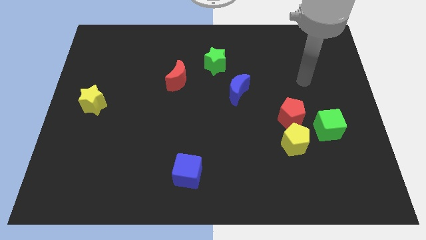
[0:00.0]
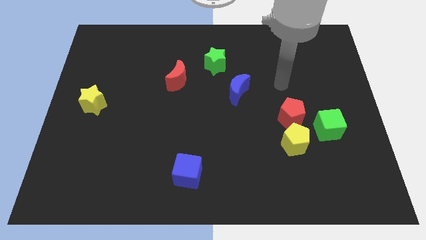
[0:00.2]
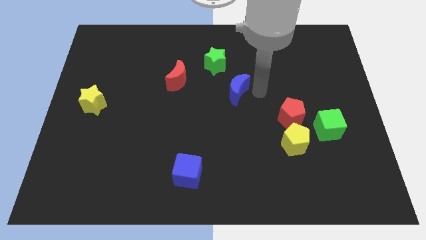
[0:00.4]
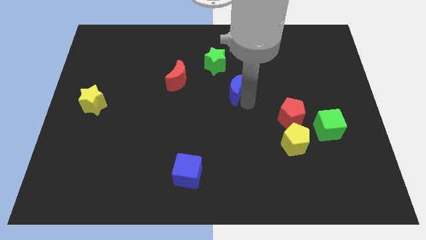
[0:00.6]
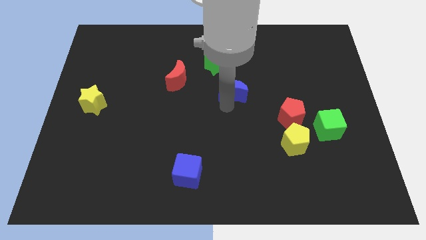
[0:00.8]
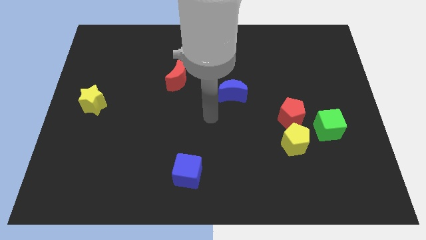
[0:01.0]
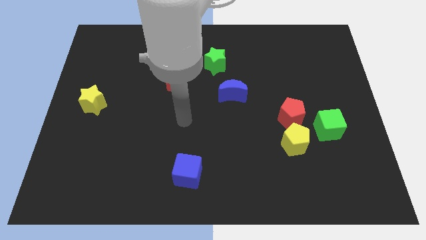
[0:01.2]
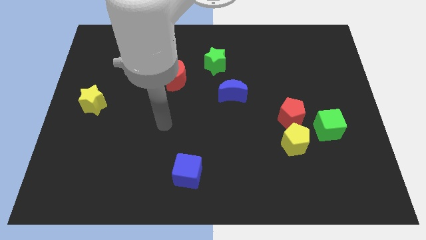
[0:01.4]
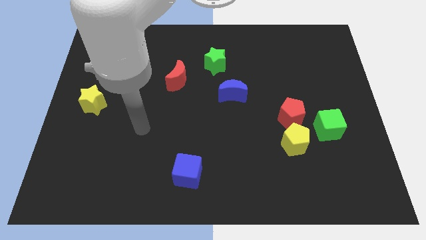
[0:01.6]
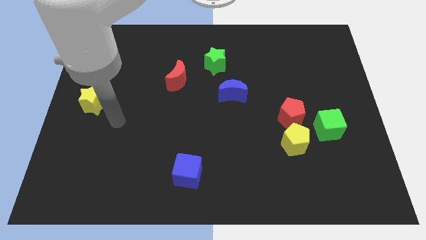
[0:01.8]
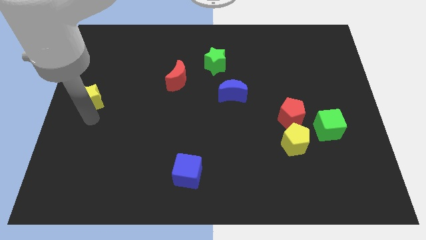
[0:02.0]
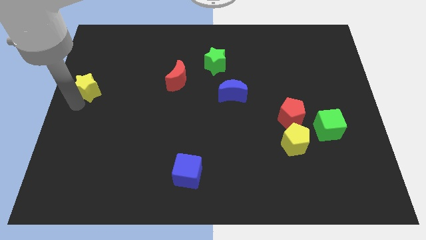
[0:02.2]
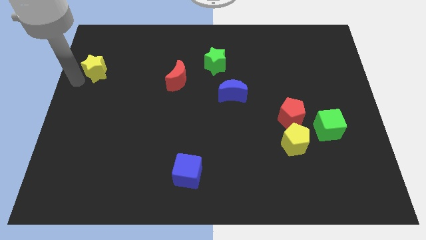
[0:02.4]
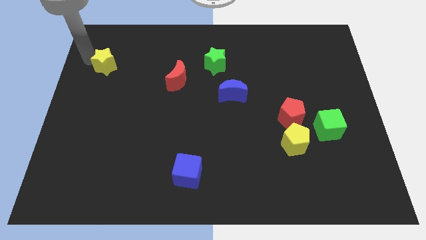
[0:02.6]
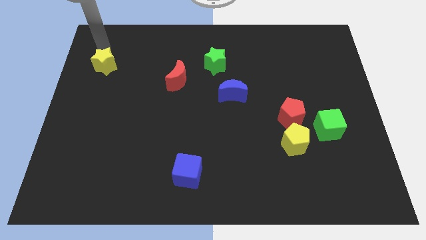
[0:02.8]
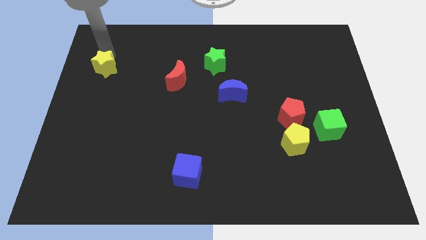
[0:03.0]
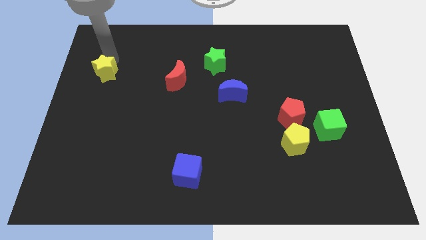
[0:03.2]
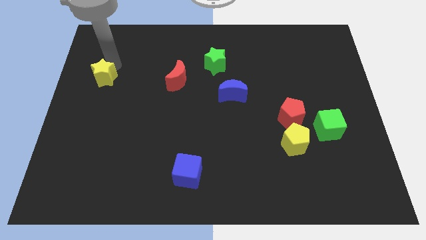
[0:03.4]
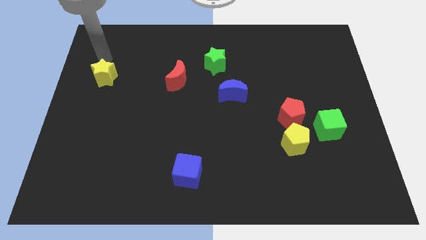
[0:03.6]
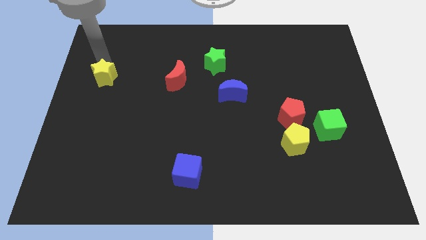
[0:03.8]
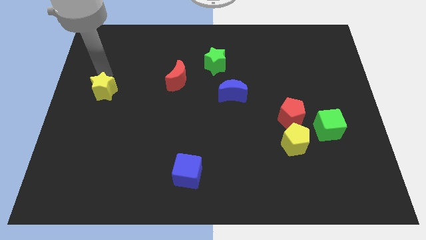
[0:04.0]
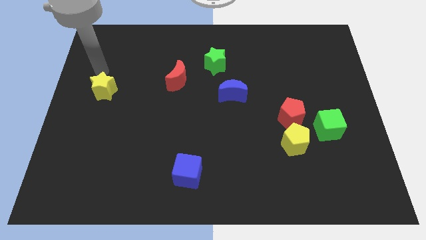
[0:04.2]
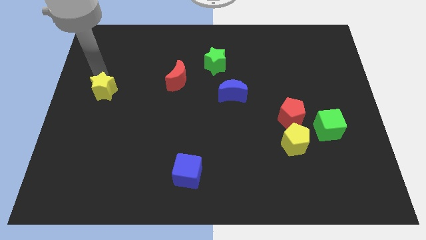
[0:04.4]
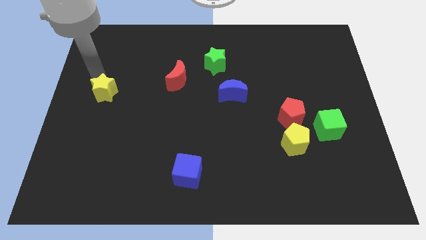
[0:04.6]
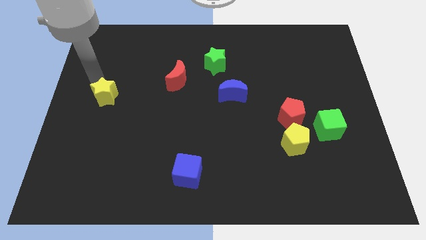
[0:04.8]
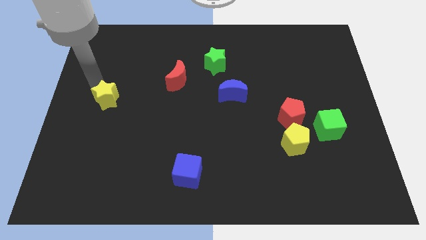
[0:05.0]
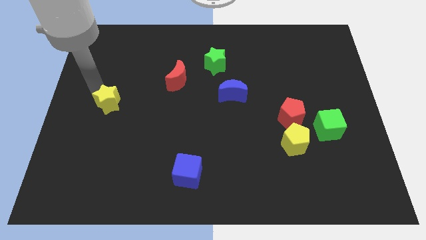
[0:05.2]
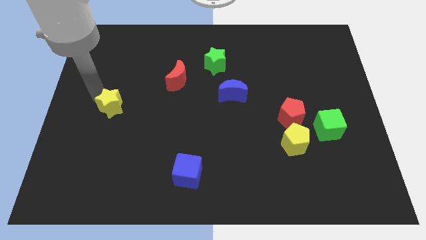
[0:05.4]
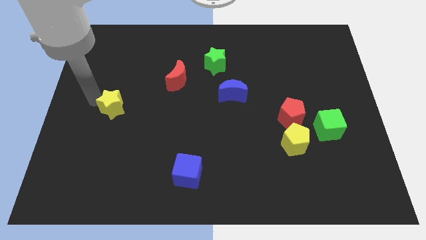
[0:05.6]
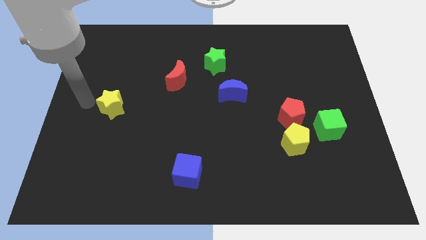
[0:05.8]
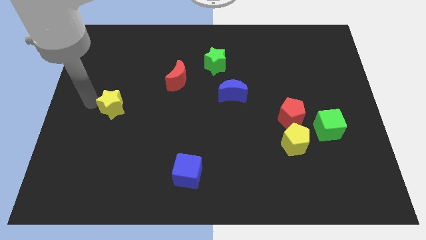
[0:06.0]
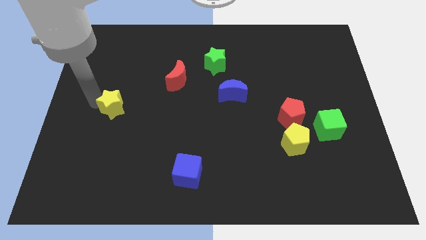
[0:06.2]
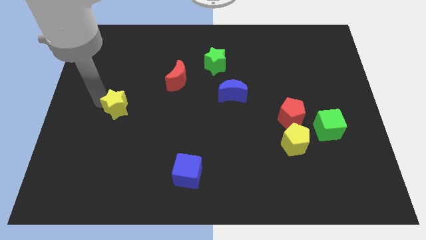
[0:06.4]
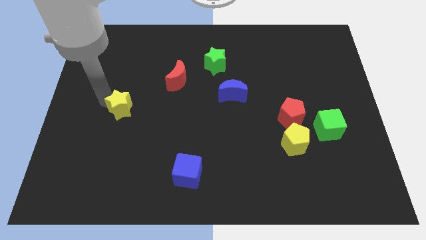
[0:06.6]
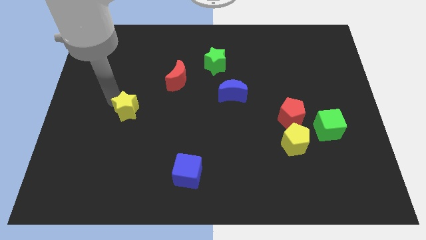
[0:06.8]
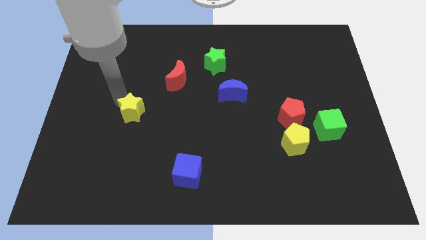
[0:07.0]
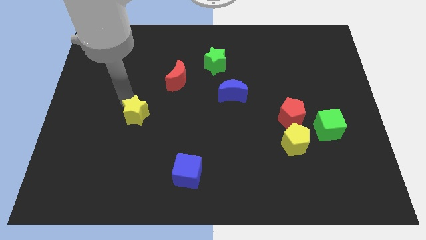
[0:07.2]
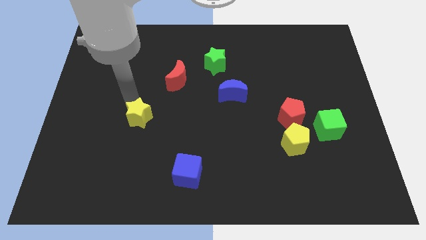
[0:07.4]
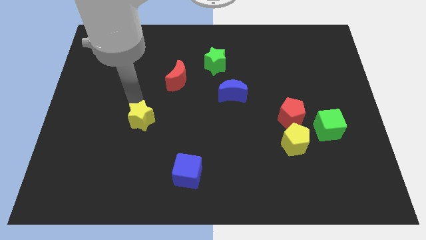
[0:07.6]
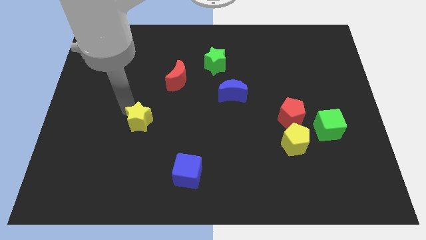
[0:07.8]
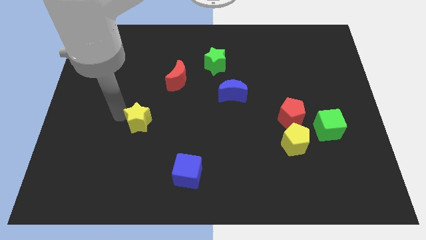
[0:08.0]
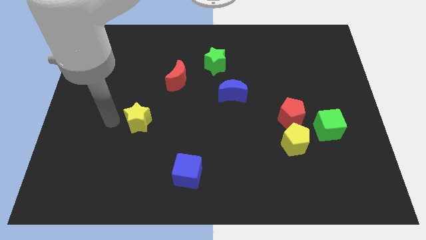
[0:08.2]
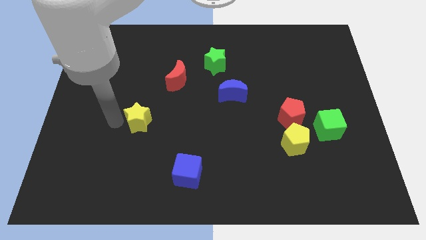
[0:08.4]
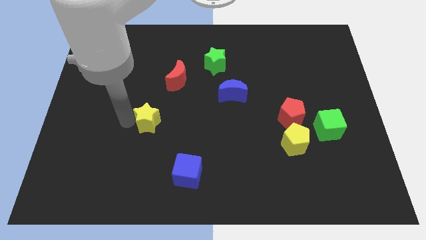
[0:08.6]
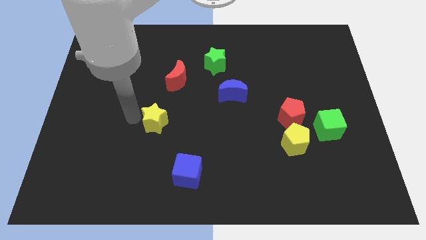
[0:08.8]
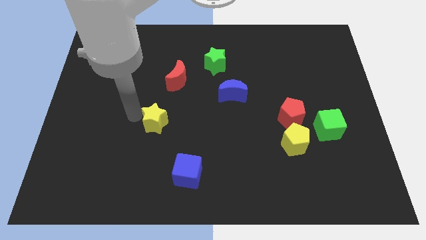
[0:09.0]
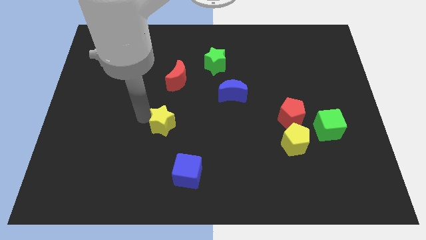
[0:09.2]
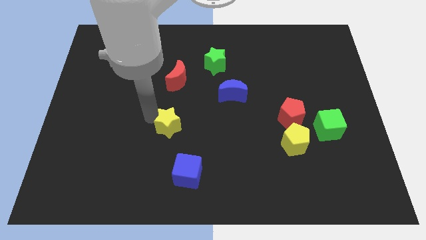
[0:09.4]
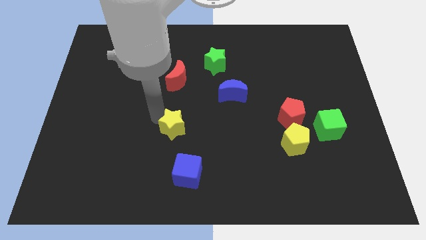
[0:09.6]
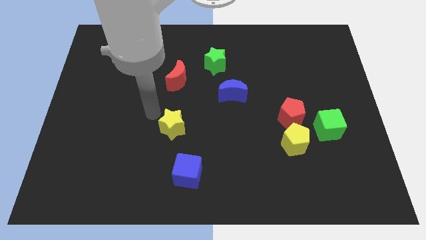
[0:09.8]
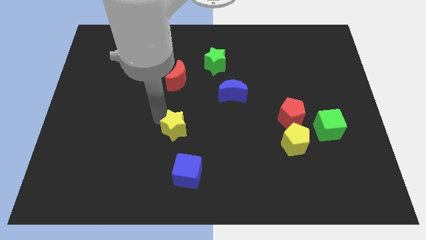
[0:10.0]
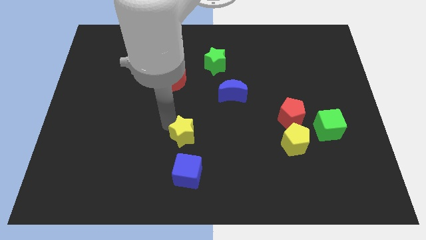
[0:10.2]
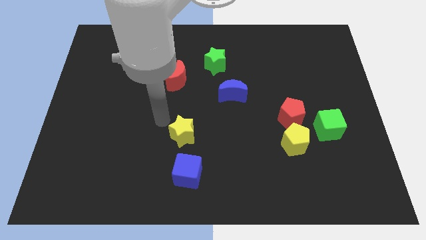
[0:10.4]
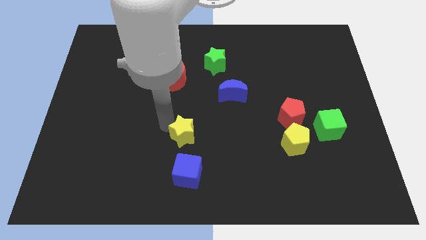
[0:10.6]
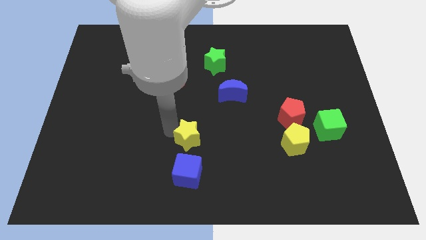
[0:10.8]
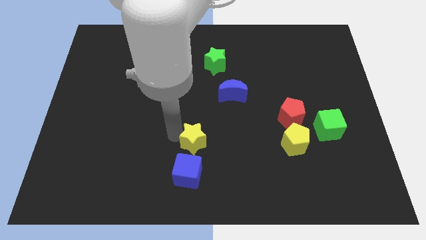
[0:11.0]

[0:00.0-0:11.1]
put the yellow star to the top right of the blue cube

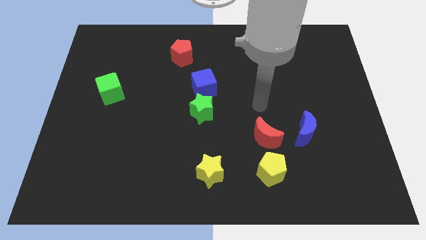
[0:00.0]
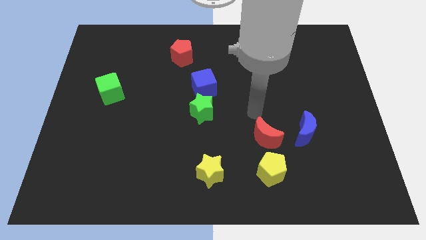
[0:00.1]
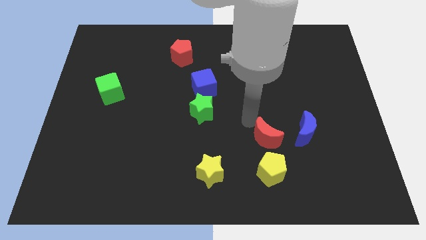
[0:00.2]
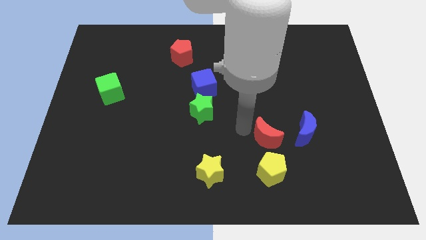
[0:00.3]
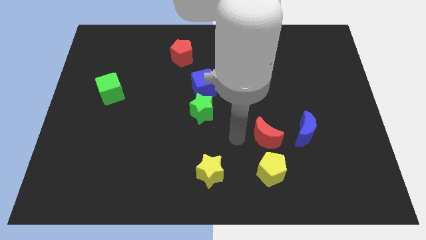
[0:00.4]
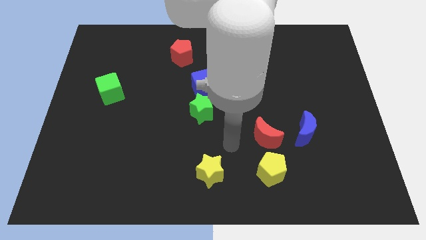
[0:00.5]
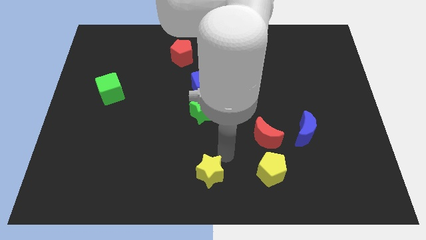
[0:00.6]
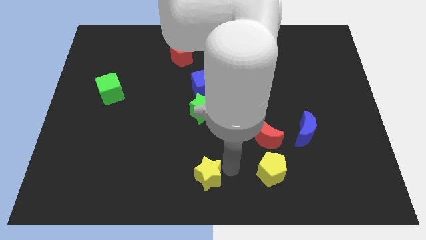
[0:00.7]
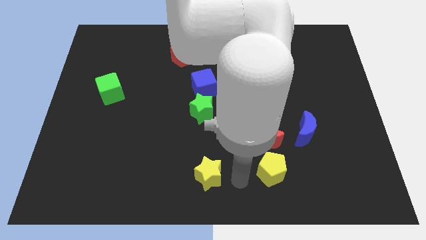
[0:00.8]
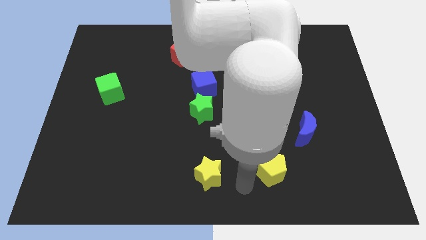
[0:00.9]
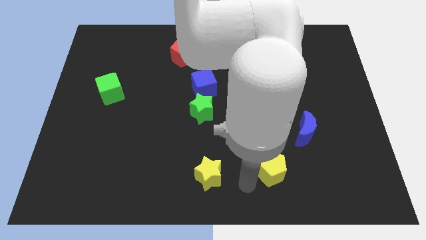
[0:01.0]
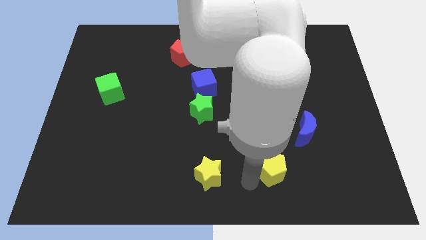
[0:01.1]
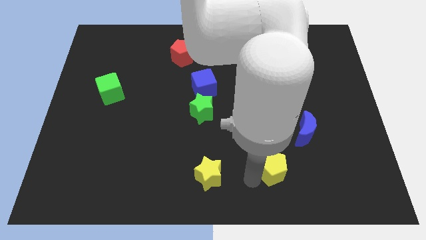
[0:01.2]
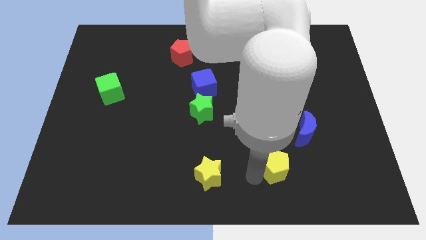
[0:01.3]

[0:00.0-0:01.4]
put the yellow pentagon to the bottom right side of the red moon

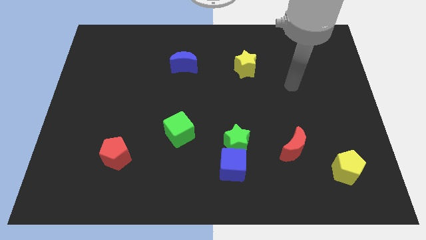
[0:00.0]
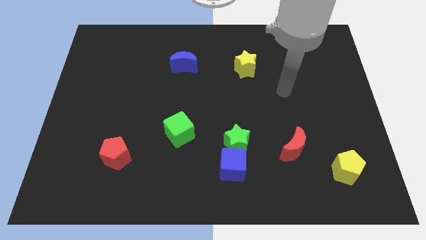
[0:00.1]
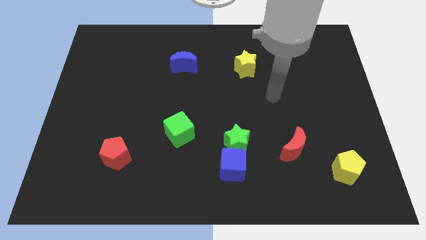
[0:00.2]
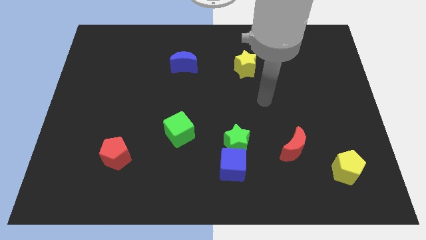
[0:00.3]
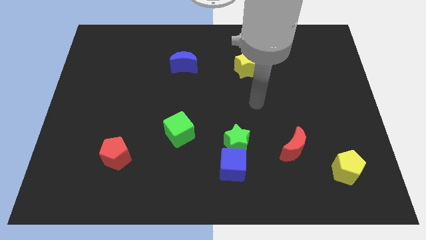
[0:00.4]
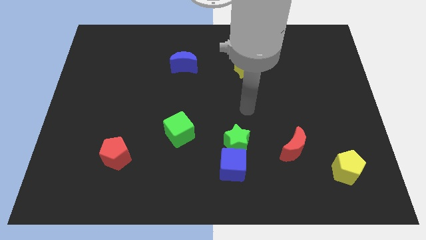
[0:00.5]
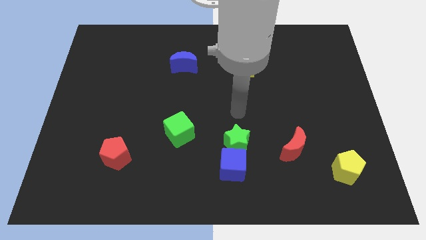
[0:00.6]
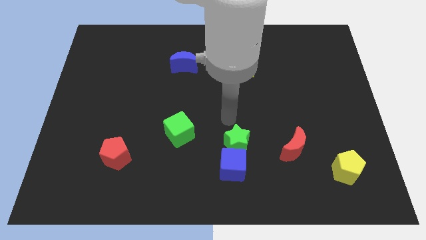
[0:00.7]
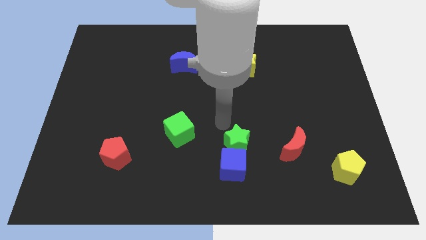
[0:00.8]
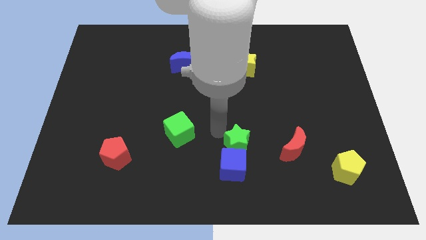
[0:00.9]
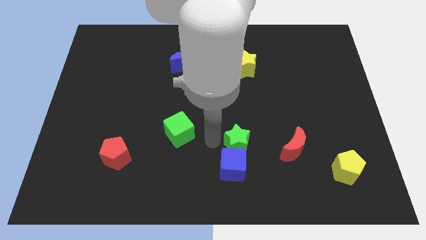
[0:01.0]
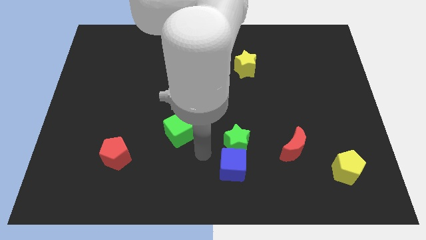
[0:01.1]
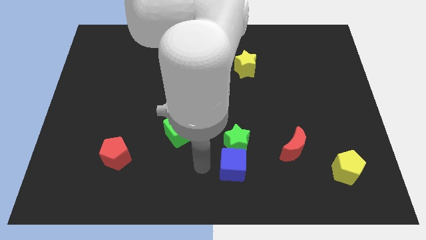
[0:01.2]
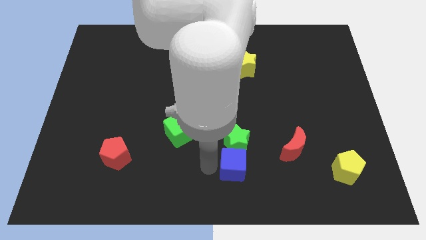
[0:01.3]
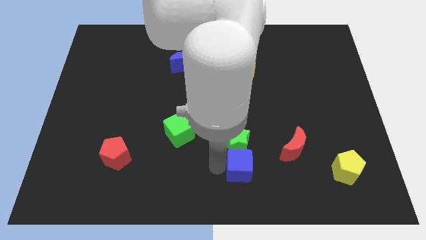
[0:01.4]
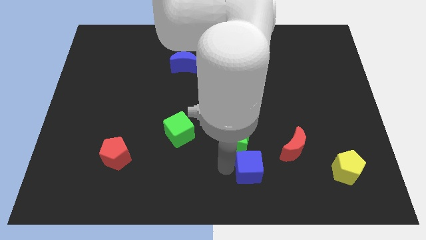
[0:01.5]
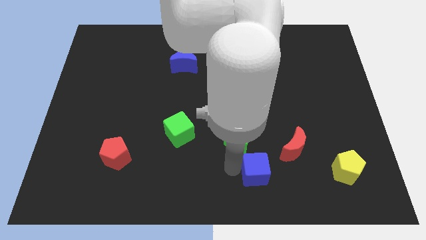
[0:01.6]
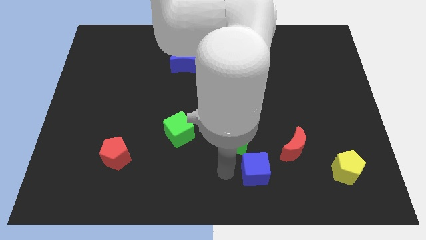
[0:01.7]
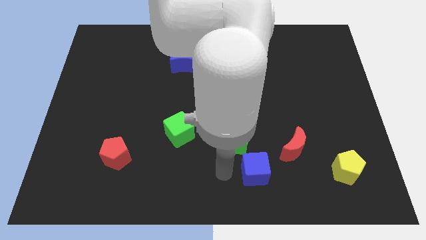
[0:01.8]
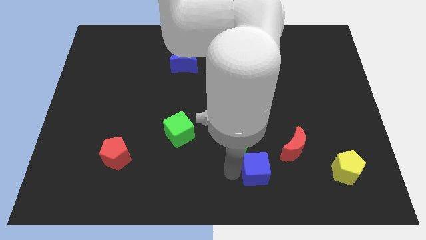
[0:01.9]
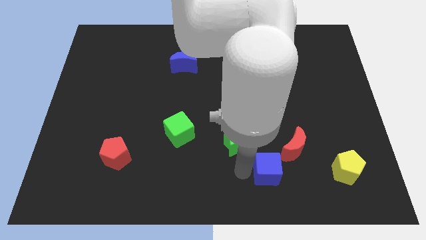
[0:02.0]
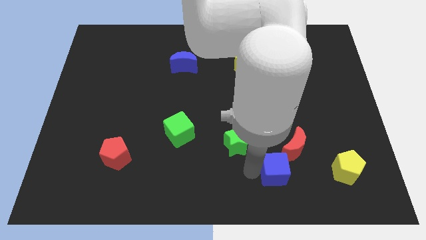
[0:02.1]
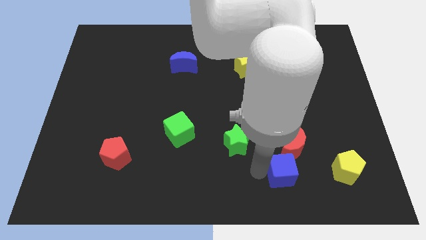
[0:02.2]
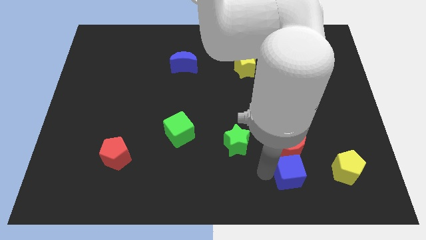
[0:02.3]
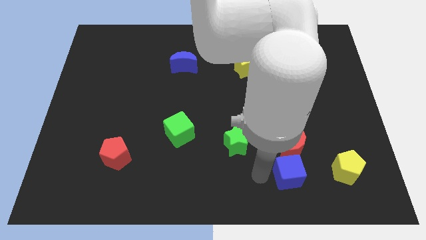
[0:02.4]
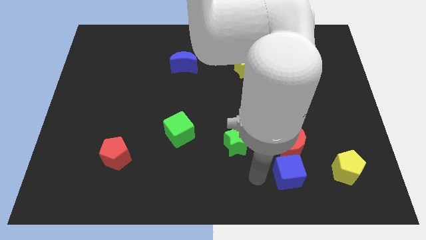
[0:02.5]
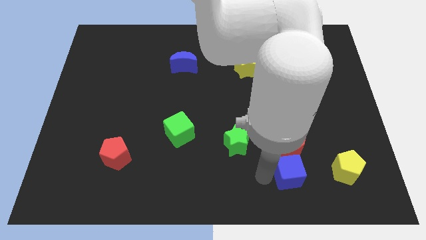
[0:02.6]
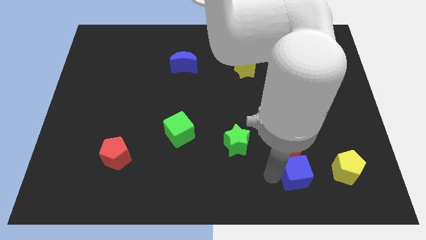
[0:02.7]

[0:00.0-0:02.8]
push the blue cube to the bottom right of the red moon
